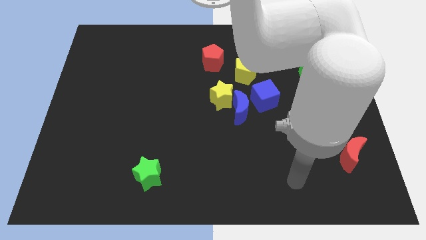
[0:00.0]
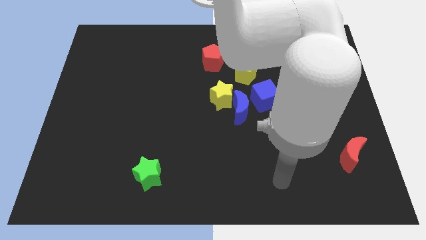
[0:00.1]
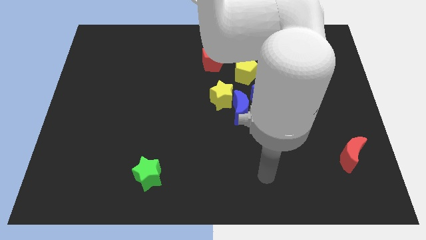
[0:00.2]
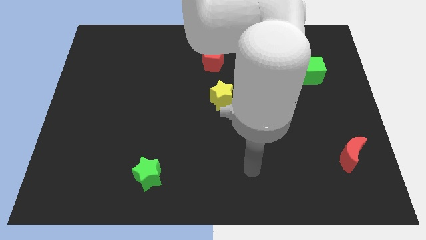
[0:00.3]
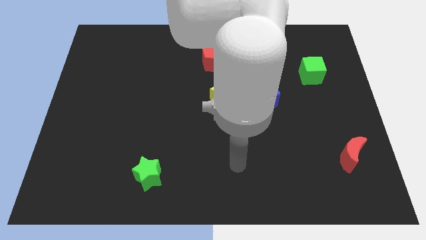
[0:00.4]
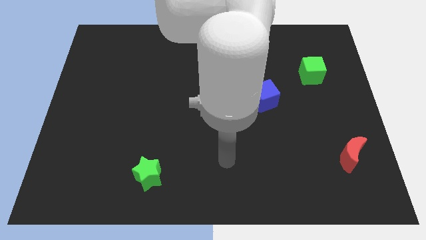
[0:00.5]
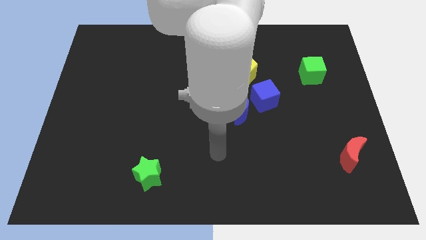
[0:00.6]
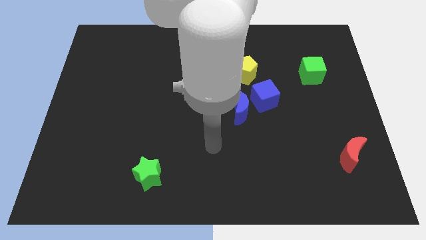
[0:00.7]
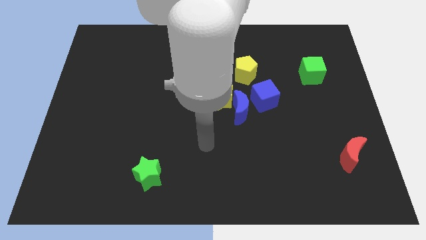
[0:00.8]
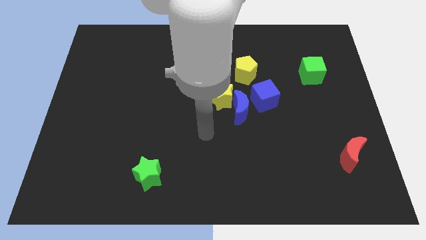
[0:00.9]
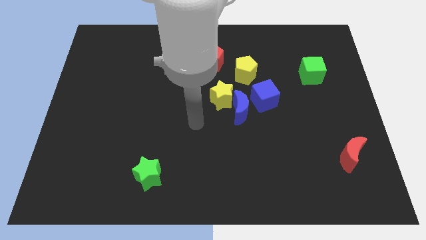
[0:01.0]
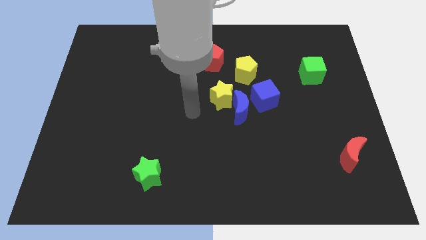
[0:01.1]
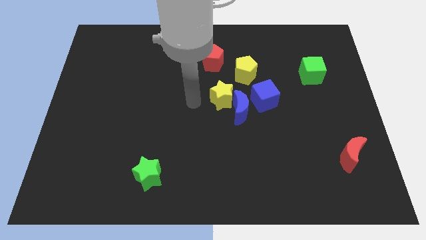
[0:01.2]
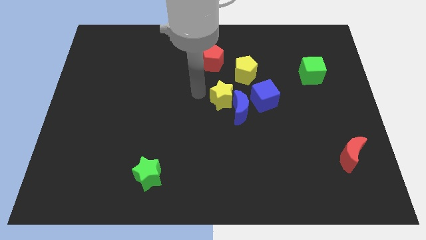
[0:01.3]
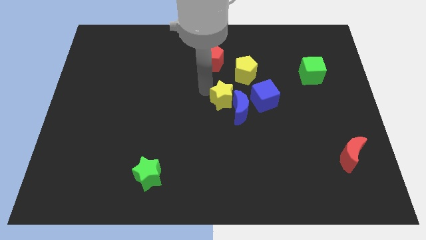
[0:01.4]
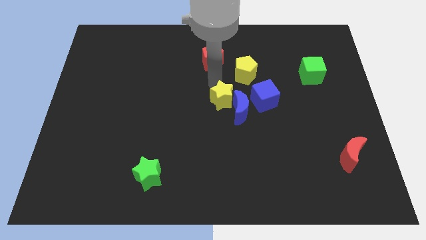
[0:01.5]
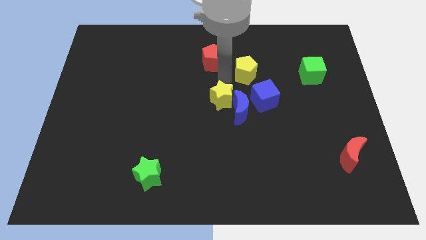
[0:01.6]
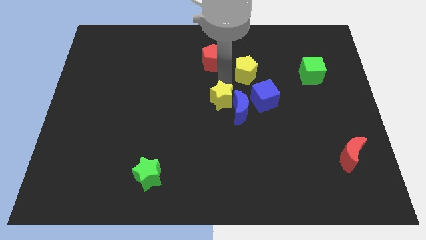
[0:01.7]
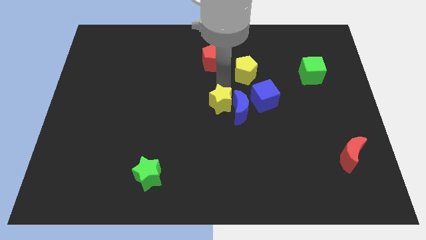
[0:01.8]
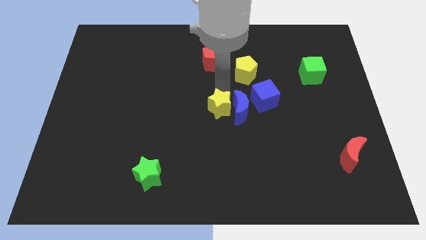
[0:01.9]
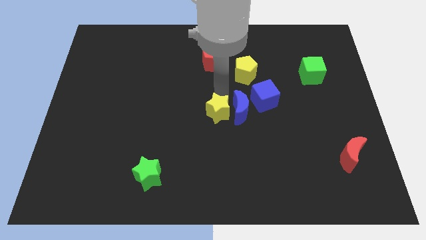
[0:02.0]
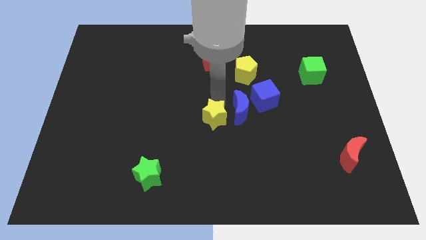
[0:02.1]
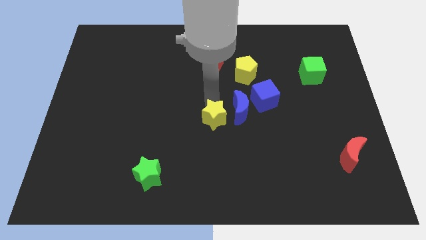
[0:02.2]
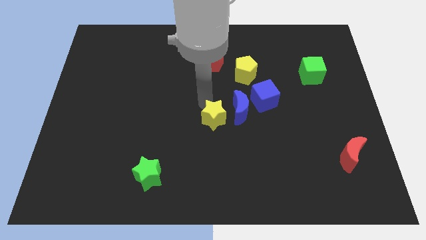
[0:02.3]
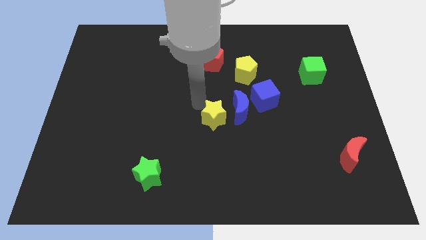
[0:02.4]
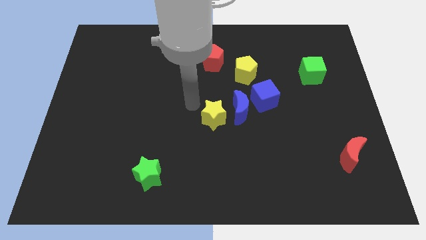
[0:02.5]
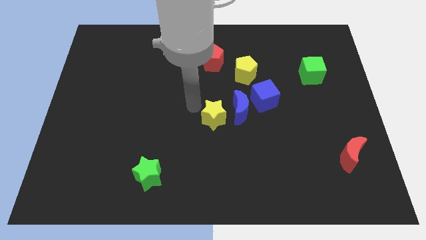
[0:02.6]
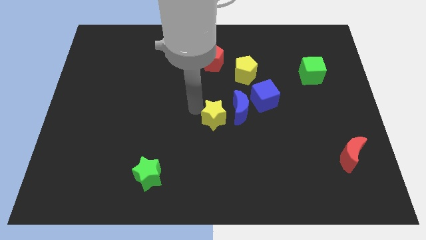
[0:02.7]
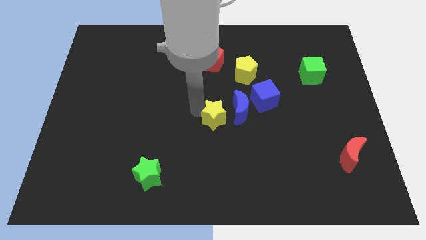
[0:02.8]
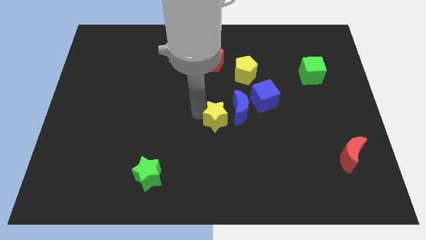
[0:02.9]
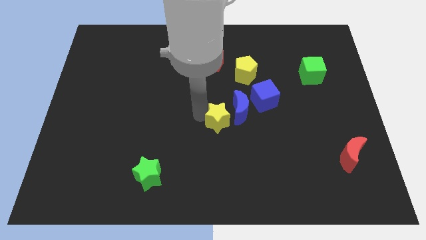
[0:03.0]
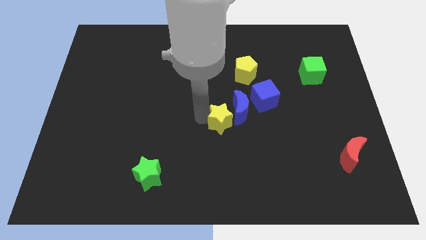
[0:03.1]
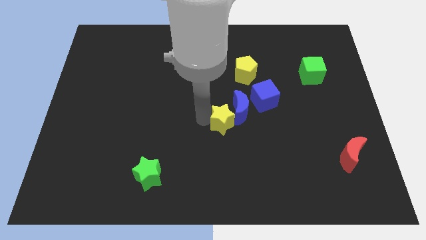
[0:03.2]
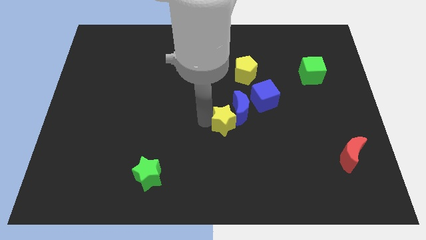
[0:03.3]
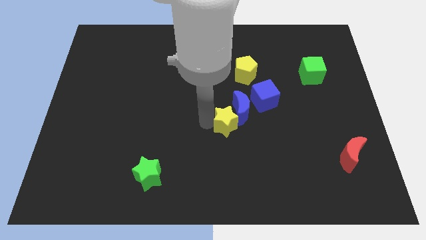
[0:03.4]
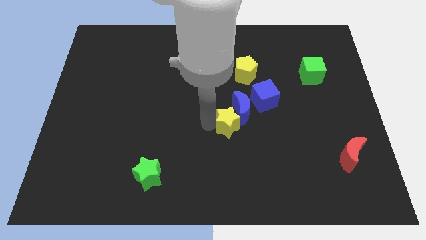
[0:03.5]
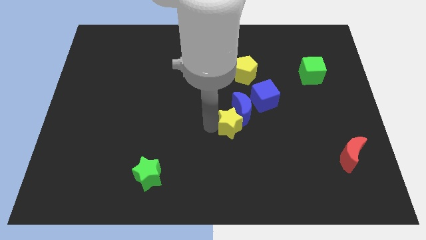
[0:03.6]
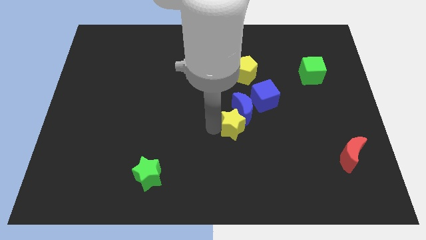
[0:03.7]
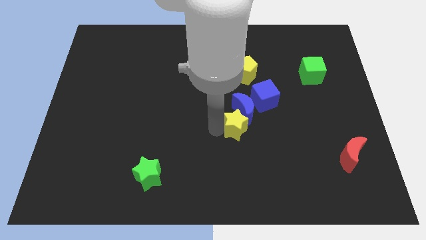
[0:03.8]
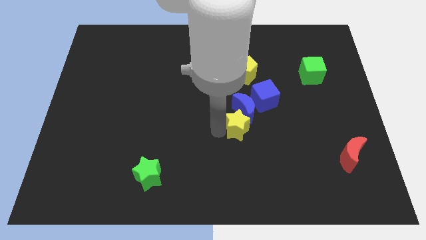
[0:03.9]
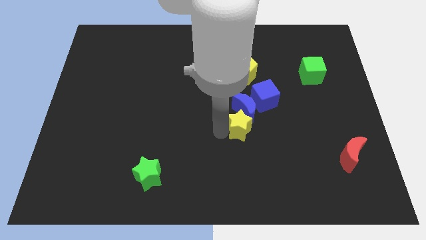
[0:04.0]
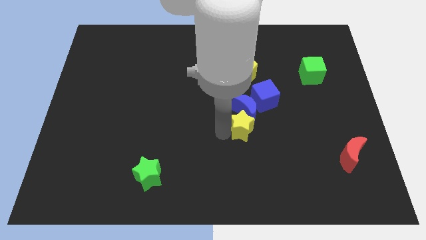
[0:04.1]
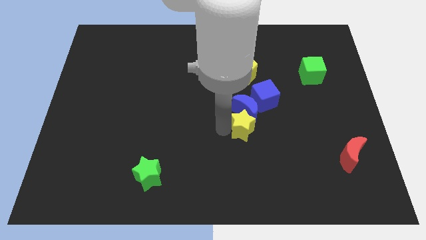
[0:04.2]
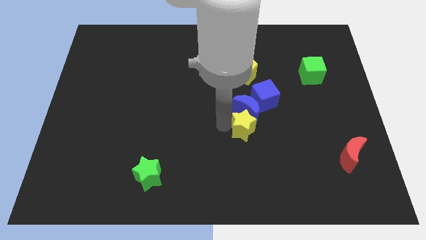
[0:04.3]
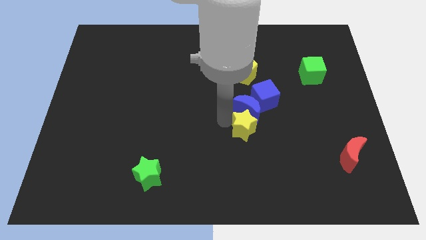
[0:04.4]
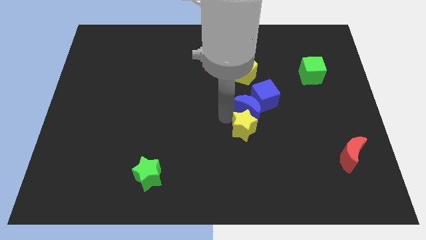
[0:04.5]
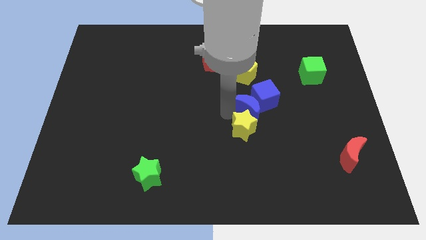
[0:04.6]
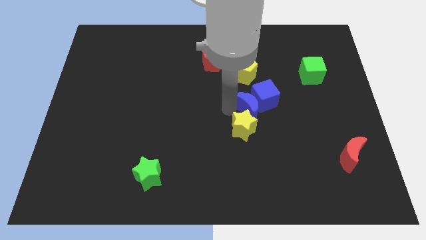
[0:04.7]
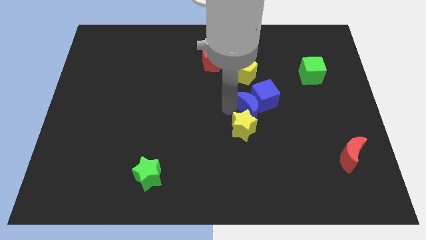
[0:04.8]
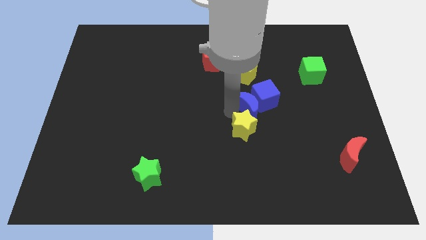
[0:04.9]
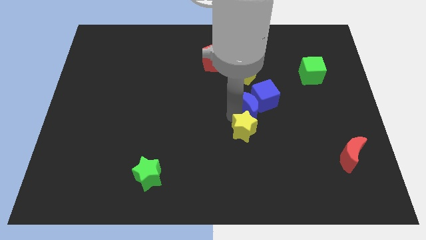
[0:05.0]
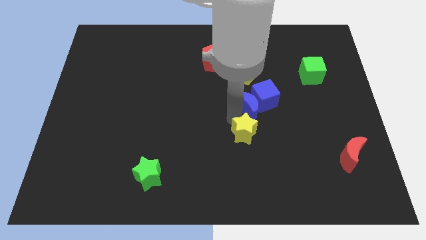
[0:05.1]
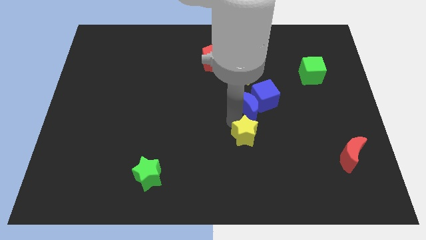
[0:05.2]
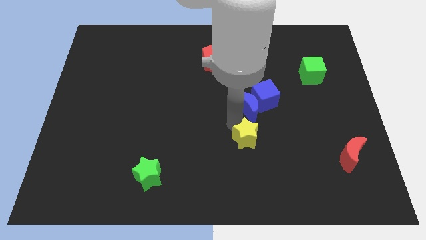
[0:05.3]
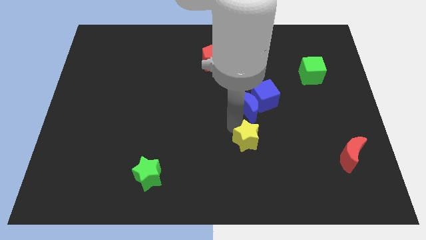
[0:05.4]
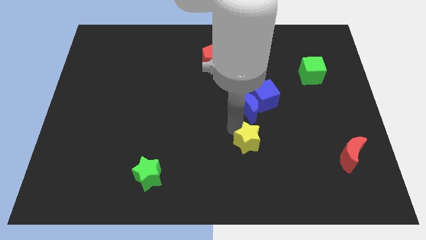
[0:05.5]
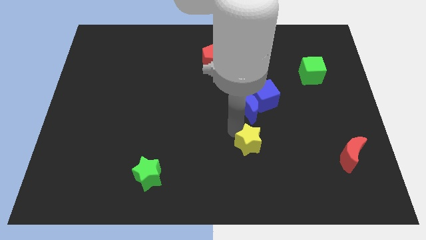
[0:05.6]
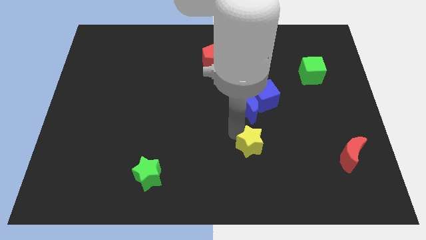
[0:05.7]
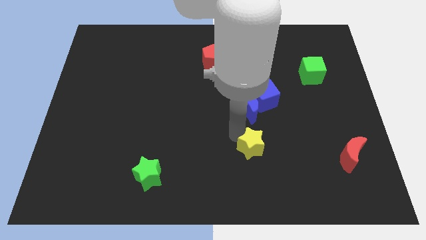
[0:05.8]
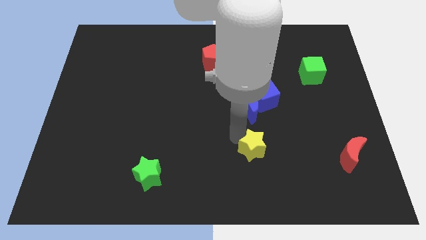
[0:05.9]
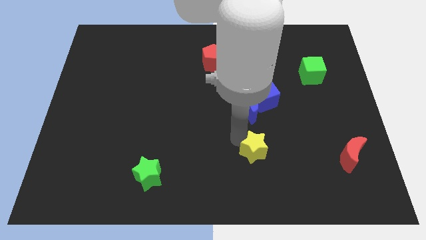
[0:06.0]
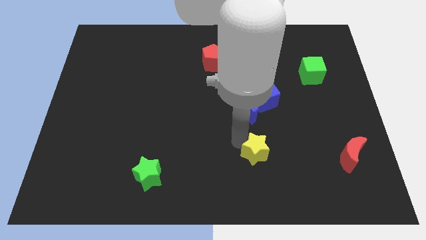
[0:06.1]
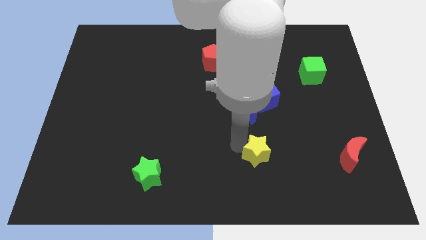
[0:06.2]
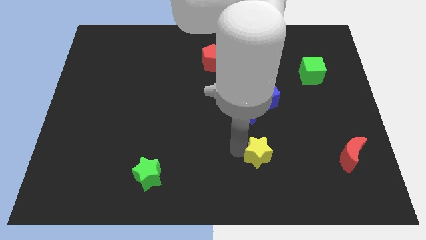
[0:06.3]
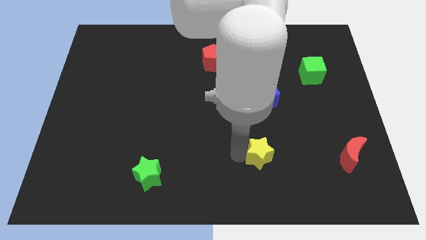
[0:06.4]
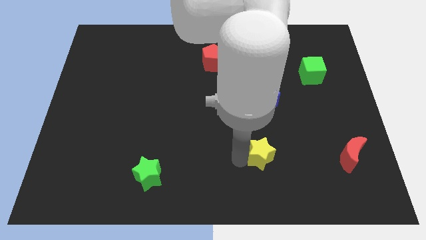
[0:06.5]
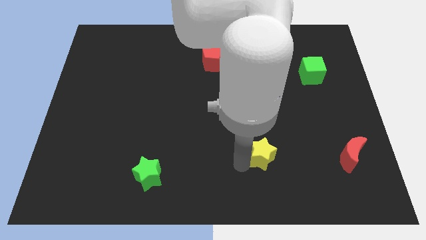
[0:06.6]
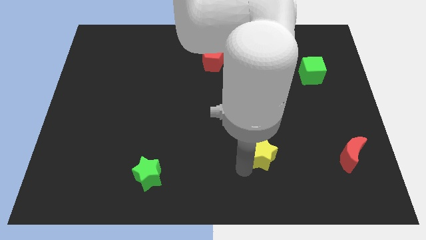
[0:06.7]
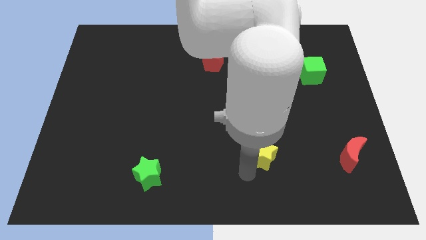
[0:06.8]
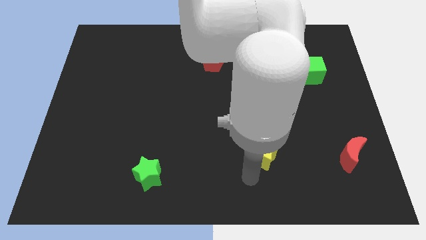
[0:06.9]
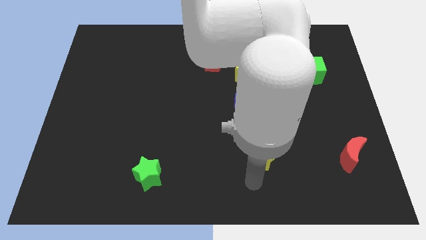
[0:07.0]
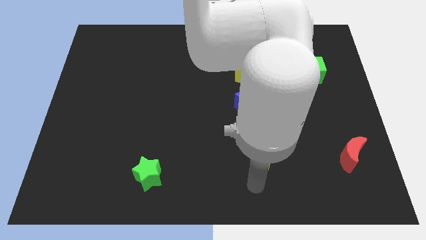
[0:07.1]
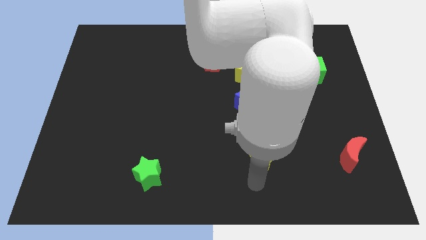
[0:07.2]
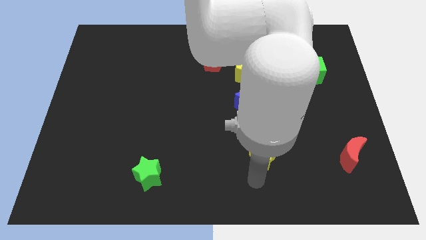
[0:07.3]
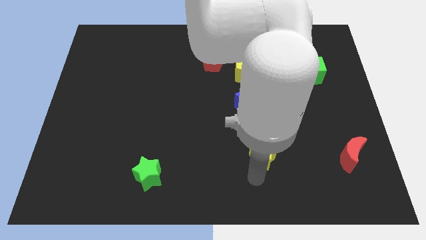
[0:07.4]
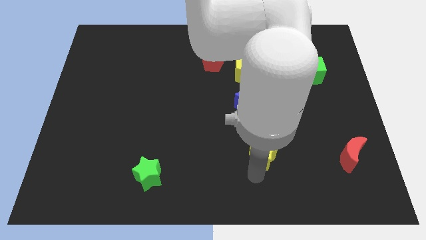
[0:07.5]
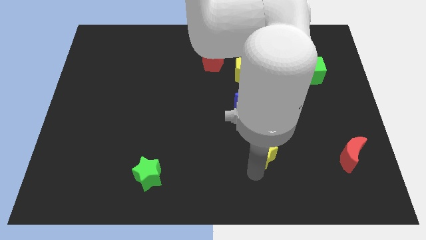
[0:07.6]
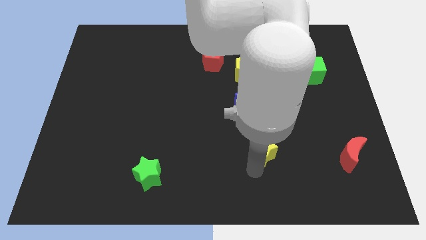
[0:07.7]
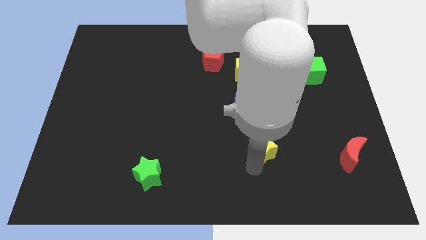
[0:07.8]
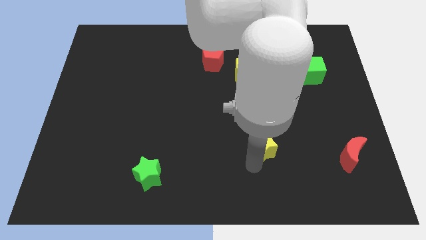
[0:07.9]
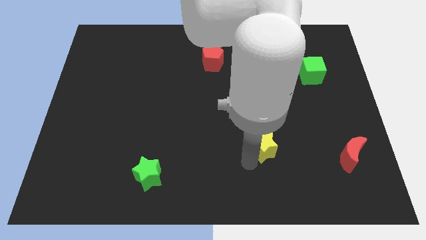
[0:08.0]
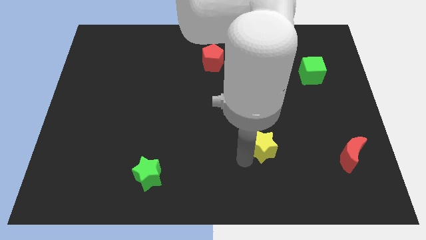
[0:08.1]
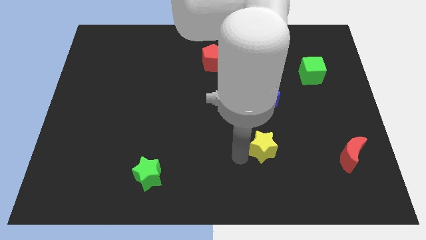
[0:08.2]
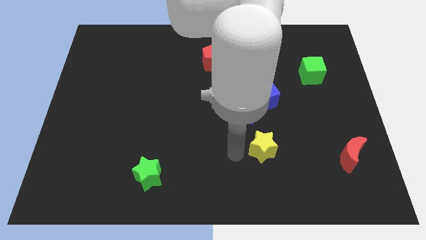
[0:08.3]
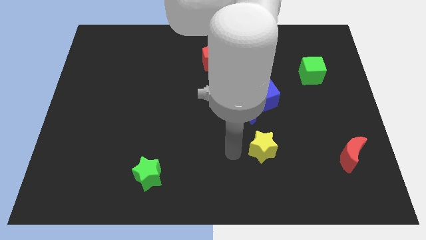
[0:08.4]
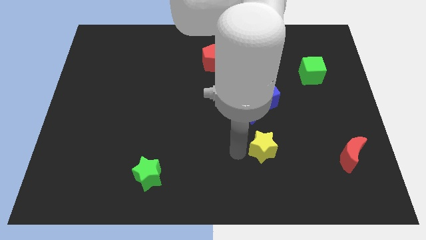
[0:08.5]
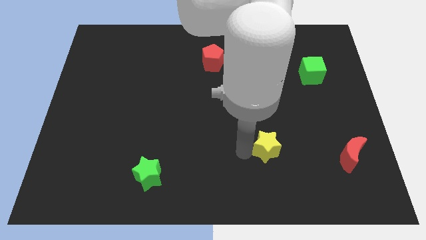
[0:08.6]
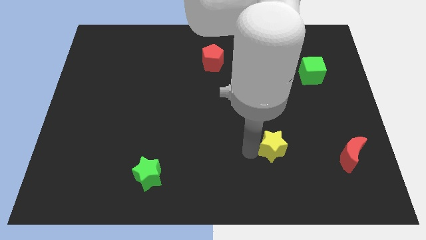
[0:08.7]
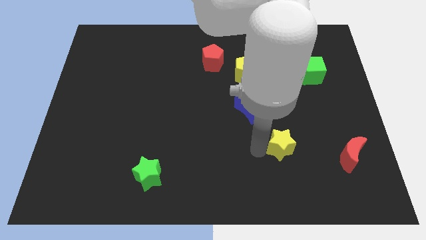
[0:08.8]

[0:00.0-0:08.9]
push the yellow star to the left side of the red moon
